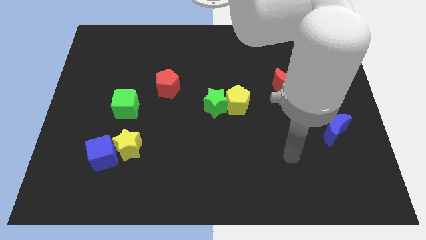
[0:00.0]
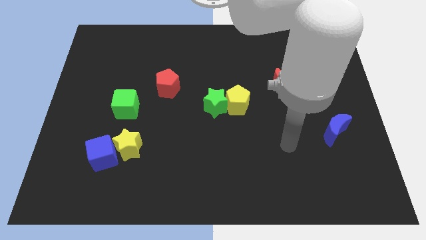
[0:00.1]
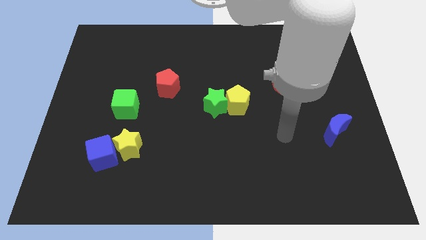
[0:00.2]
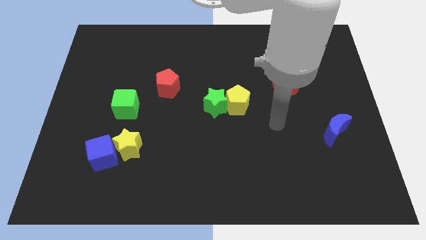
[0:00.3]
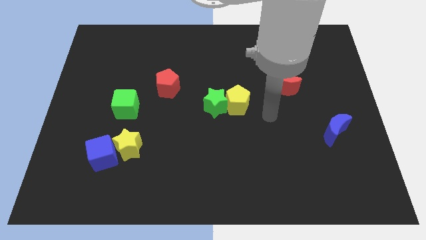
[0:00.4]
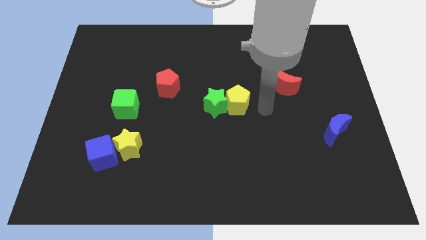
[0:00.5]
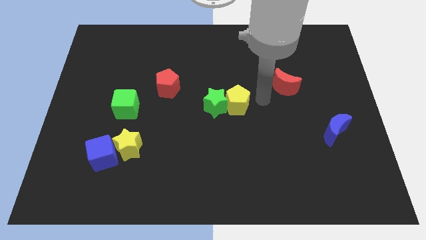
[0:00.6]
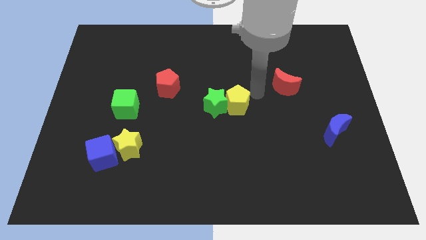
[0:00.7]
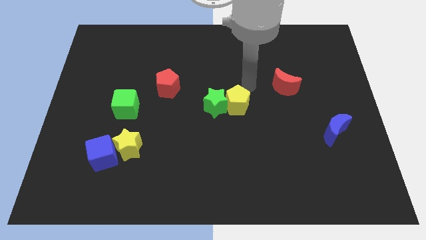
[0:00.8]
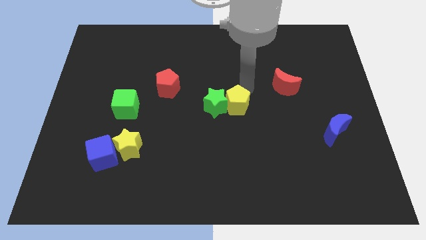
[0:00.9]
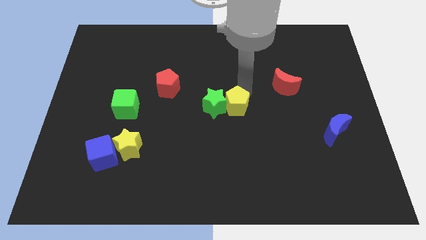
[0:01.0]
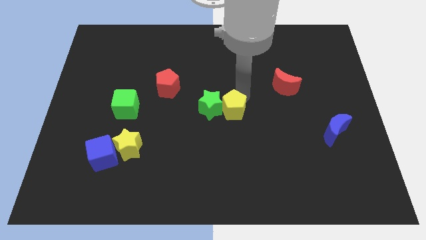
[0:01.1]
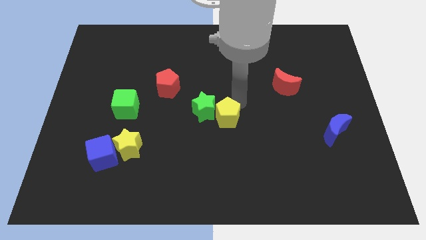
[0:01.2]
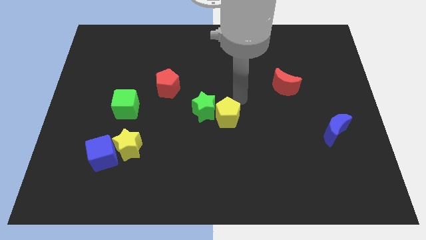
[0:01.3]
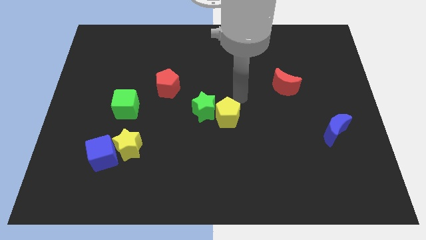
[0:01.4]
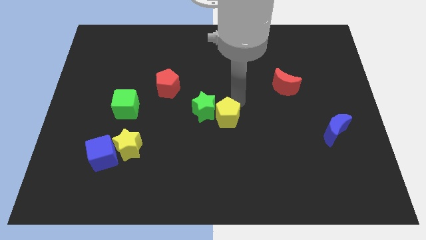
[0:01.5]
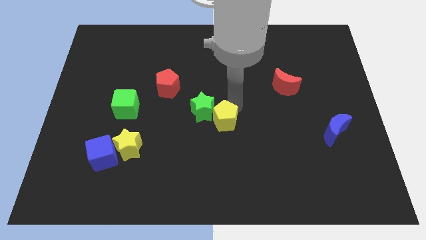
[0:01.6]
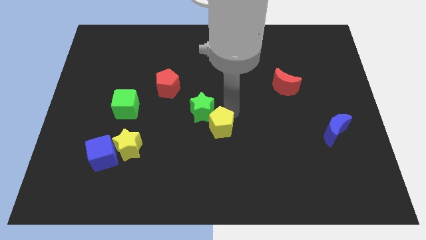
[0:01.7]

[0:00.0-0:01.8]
slide the yellow pentagon down and to the left diagonally a little

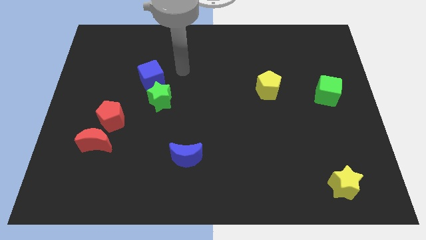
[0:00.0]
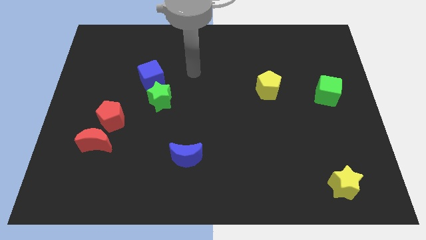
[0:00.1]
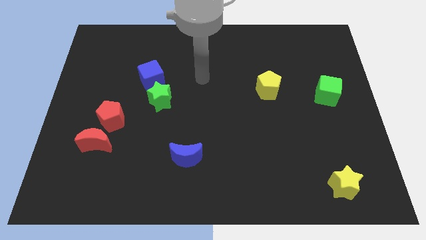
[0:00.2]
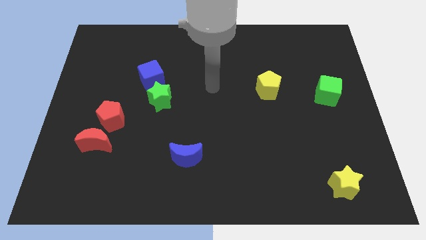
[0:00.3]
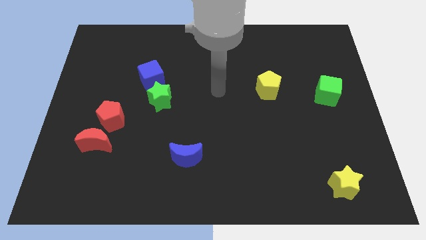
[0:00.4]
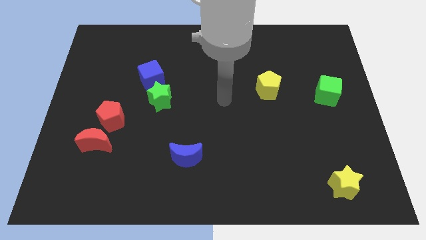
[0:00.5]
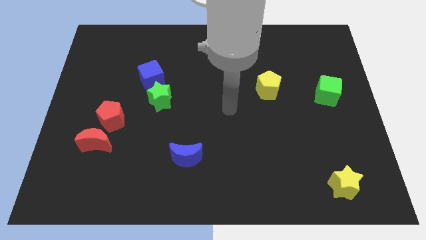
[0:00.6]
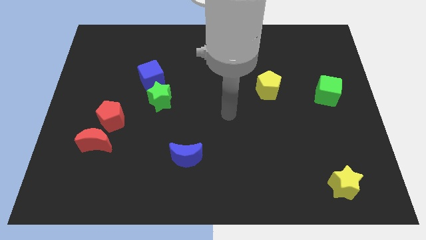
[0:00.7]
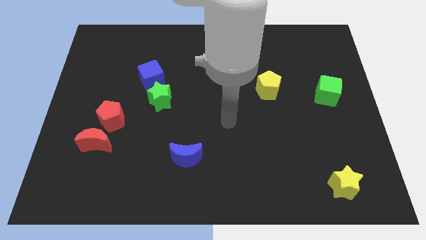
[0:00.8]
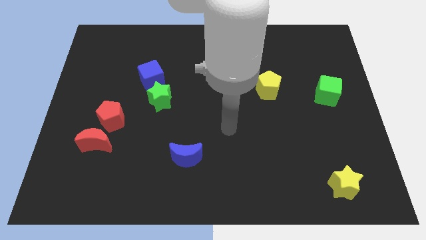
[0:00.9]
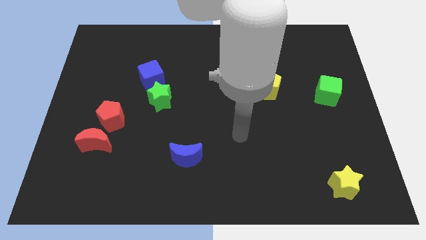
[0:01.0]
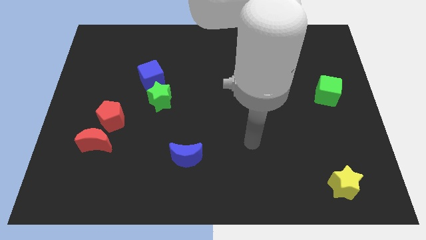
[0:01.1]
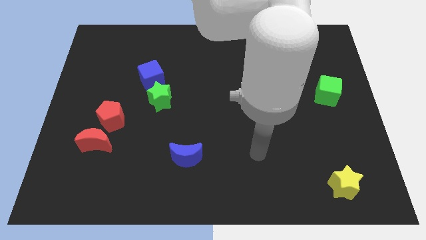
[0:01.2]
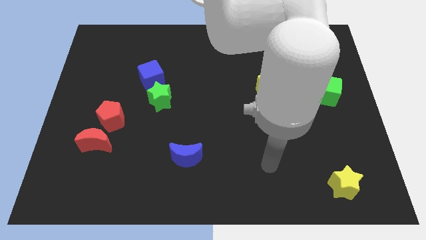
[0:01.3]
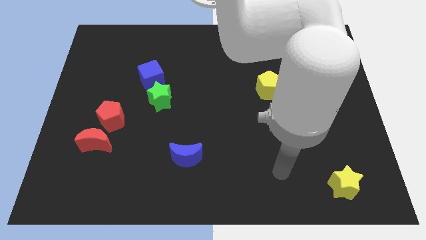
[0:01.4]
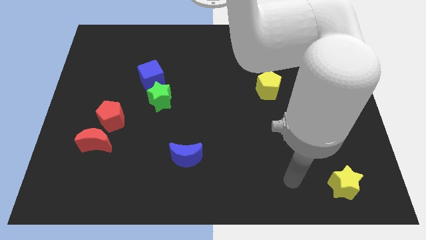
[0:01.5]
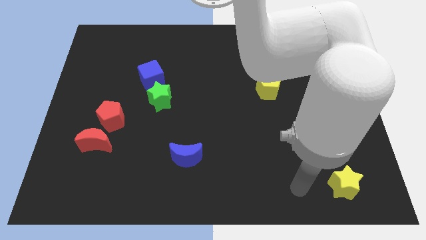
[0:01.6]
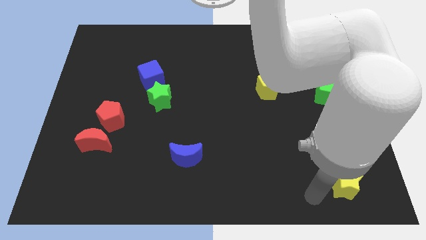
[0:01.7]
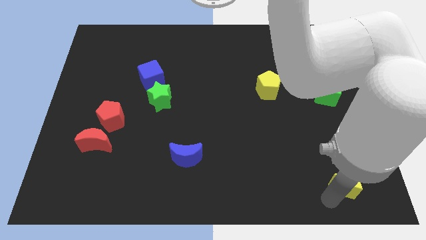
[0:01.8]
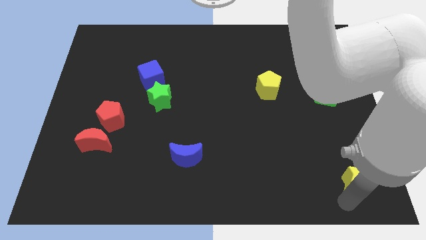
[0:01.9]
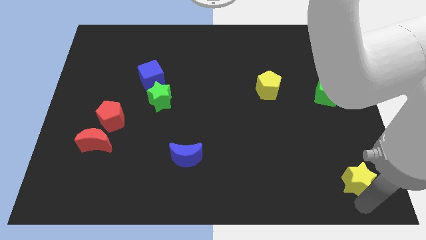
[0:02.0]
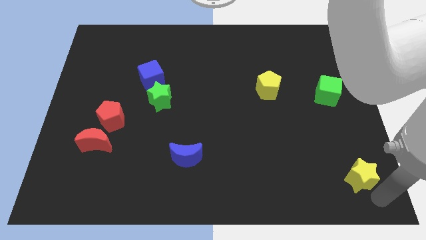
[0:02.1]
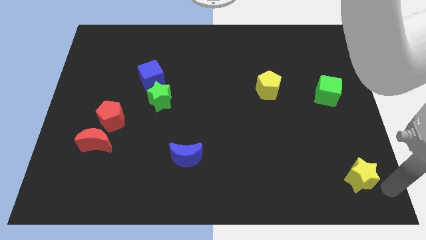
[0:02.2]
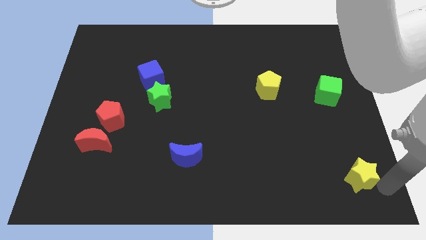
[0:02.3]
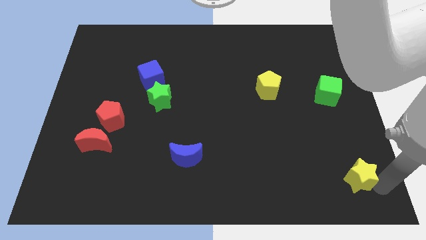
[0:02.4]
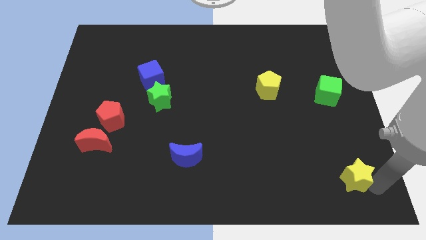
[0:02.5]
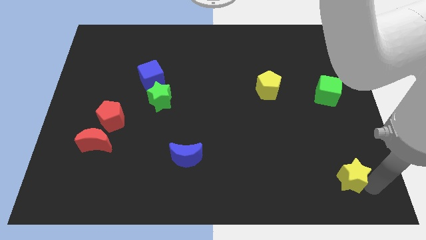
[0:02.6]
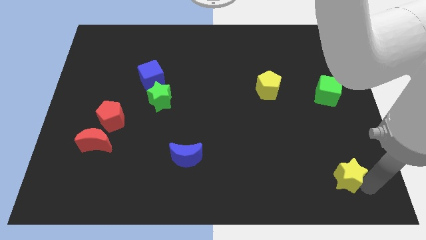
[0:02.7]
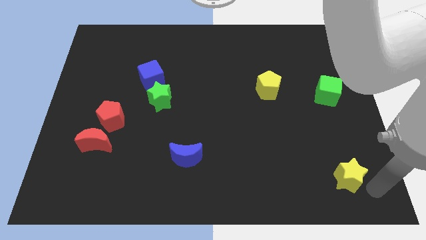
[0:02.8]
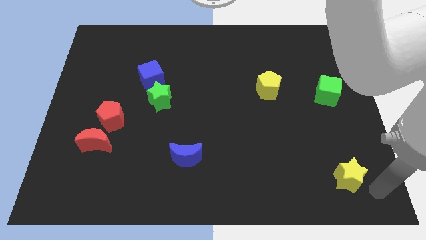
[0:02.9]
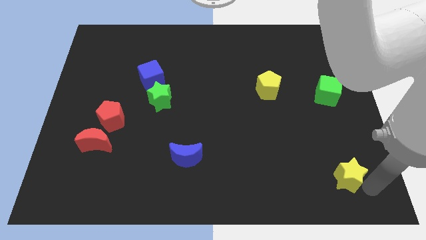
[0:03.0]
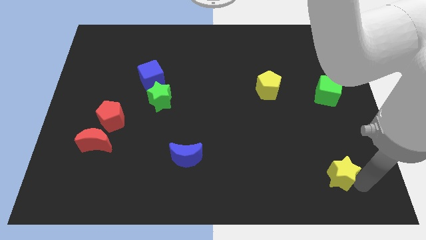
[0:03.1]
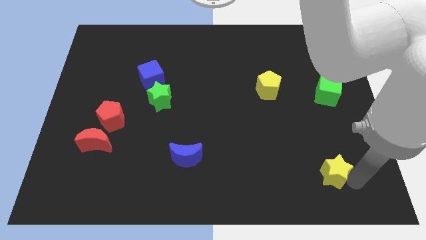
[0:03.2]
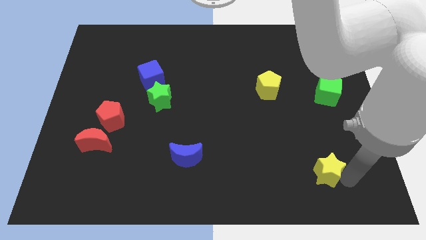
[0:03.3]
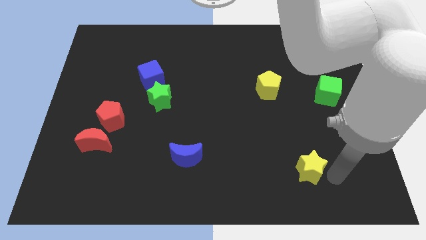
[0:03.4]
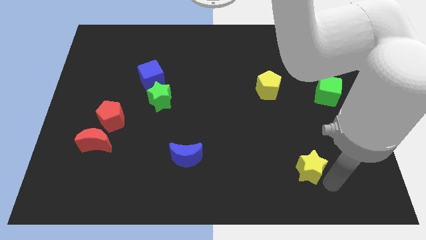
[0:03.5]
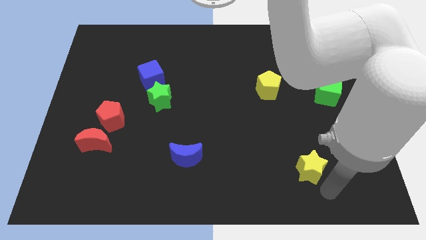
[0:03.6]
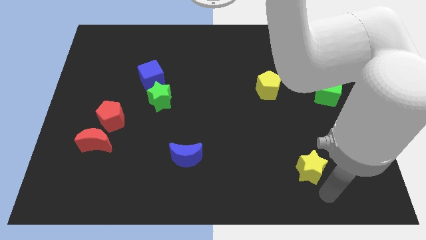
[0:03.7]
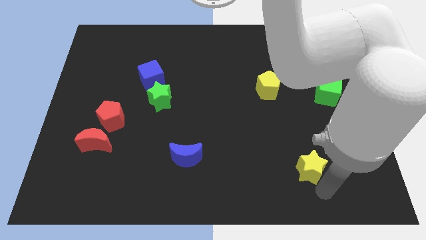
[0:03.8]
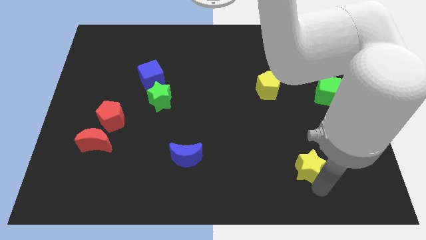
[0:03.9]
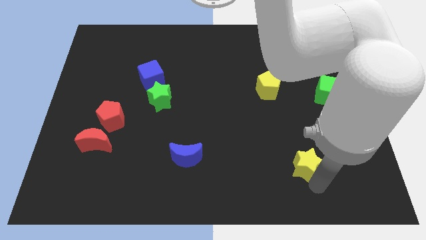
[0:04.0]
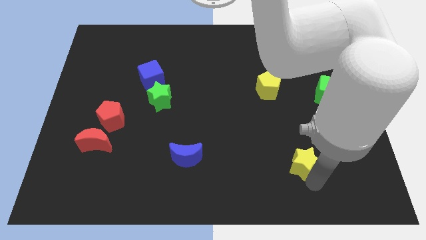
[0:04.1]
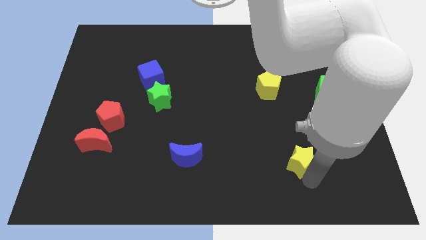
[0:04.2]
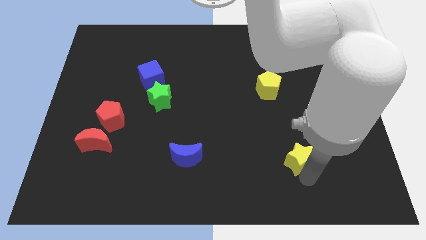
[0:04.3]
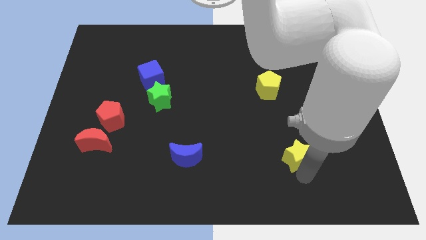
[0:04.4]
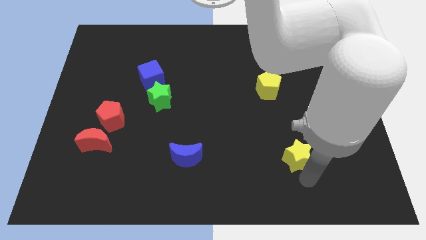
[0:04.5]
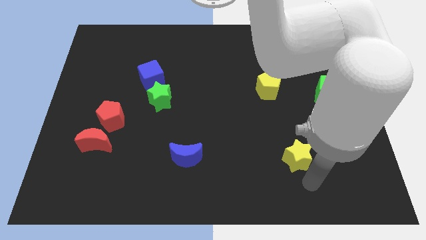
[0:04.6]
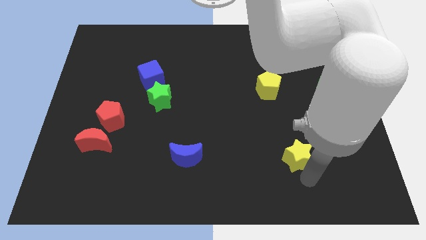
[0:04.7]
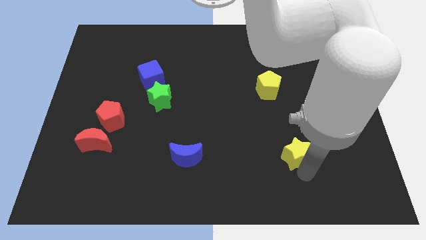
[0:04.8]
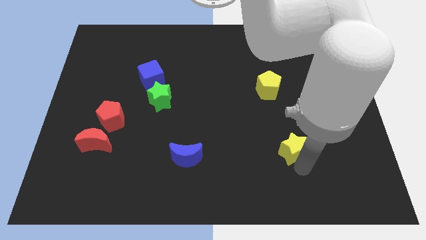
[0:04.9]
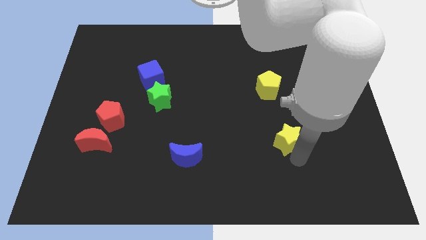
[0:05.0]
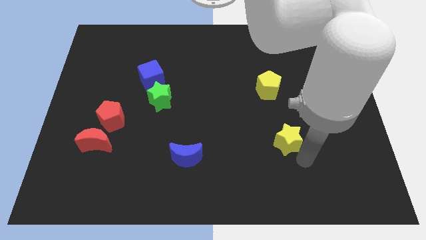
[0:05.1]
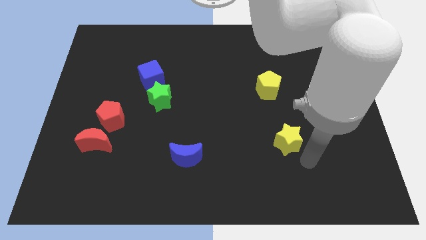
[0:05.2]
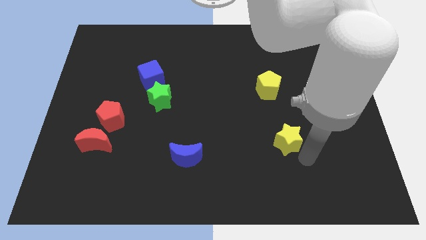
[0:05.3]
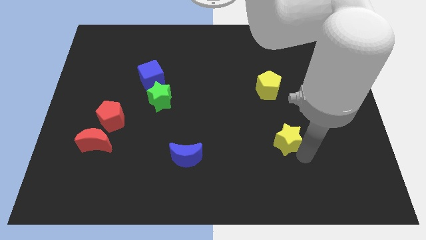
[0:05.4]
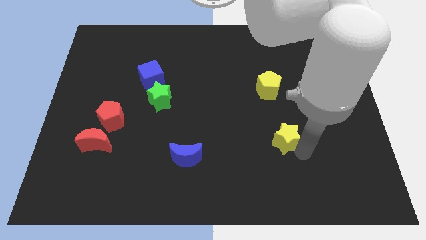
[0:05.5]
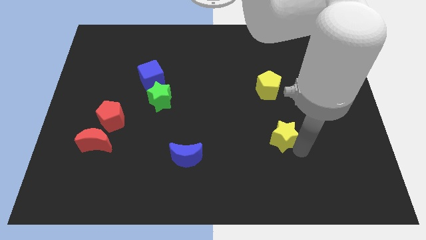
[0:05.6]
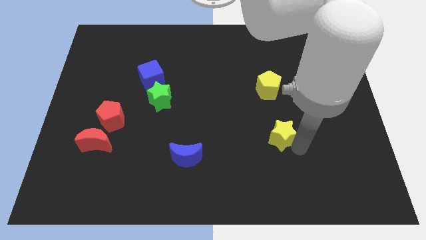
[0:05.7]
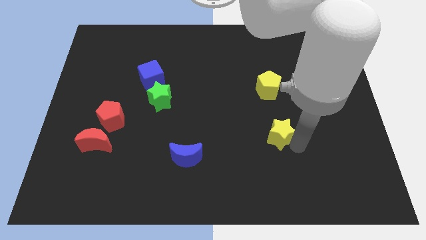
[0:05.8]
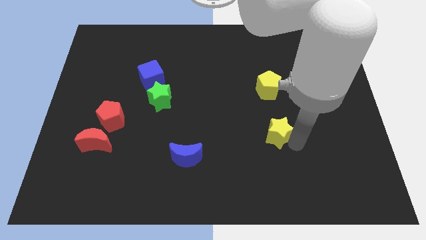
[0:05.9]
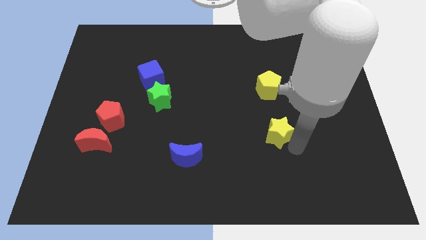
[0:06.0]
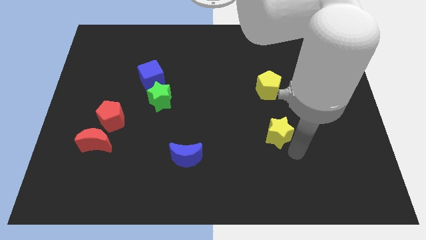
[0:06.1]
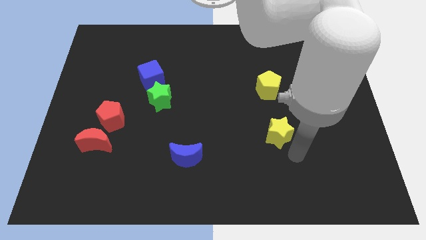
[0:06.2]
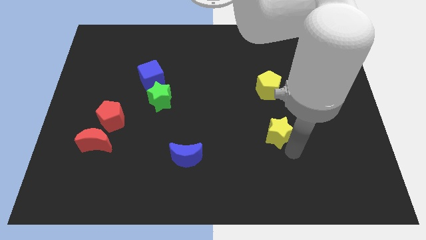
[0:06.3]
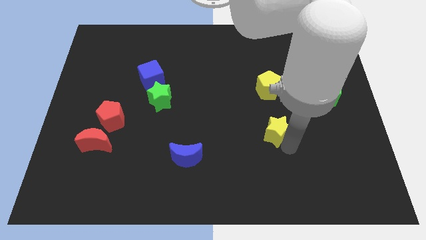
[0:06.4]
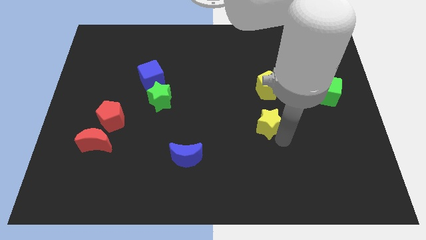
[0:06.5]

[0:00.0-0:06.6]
push the yellow star upwards and left diagonally
